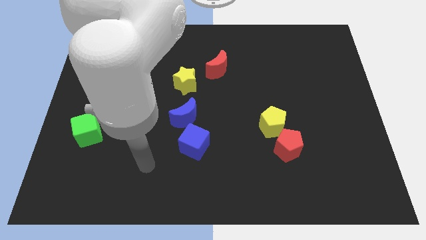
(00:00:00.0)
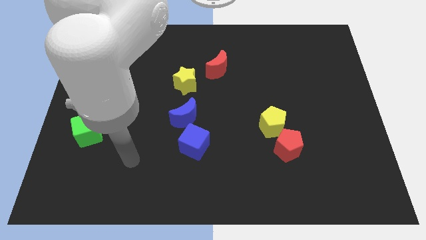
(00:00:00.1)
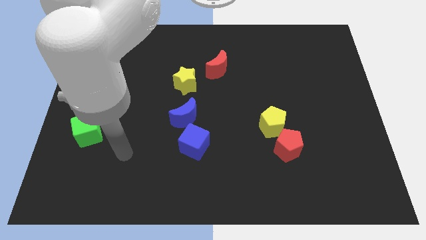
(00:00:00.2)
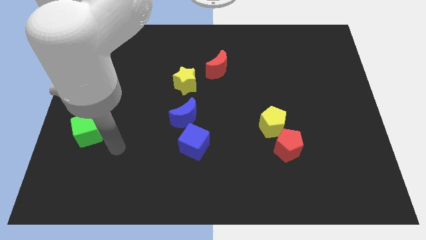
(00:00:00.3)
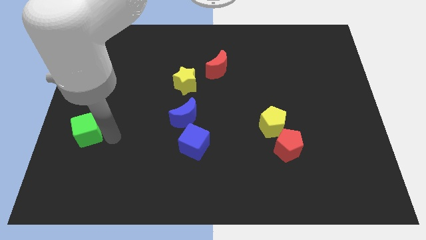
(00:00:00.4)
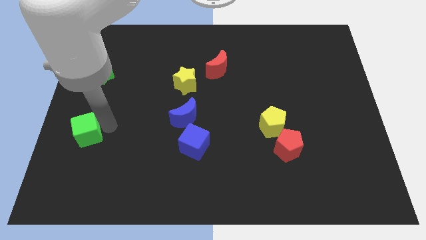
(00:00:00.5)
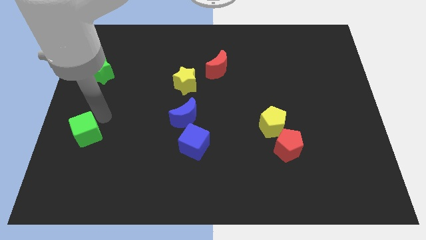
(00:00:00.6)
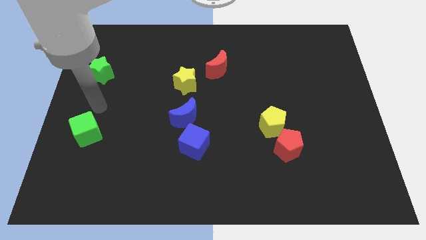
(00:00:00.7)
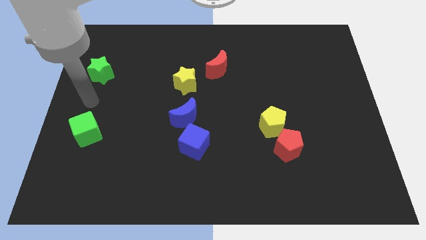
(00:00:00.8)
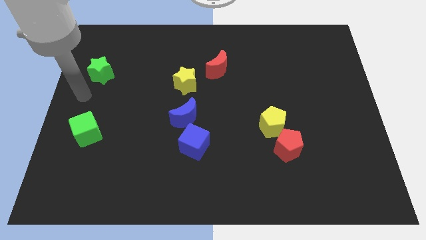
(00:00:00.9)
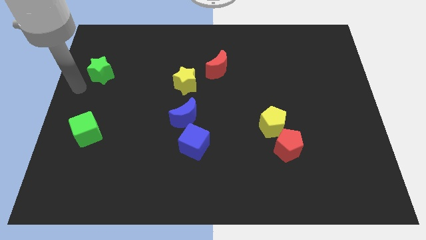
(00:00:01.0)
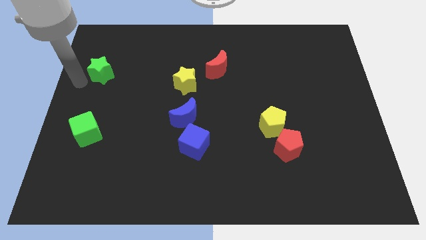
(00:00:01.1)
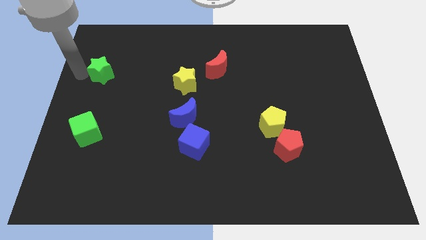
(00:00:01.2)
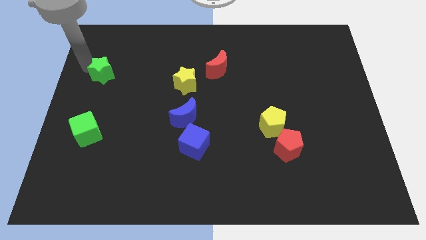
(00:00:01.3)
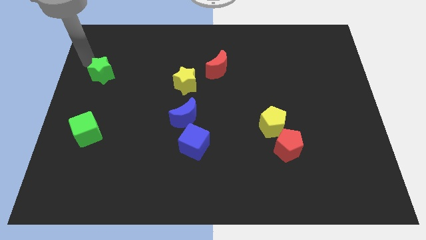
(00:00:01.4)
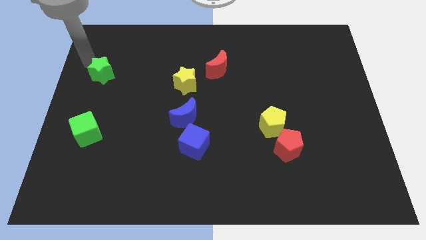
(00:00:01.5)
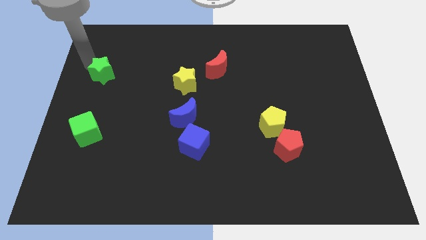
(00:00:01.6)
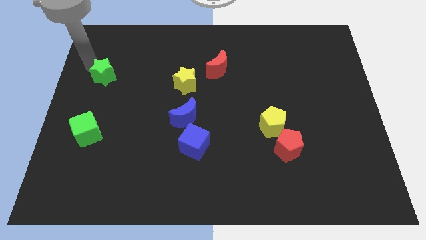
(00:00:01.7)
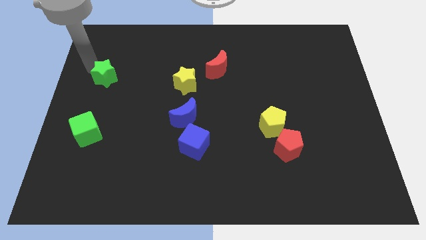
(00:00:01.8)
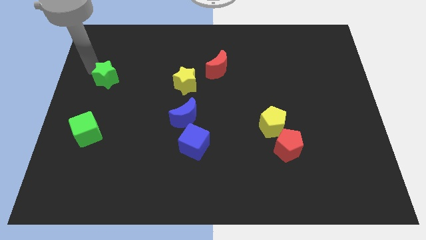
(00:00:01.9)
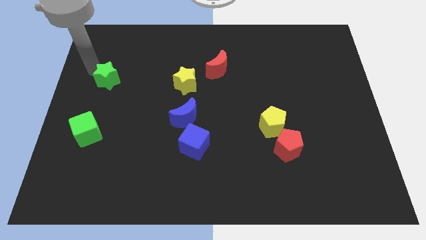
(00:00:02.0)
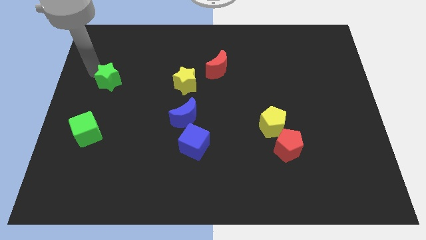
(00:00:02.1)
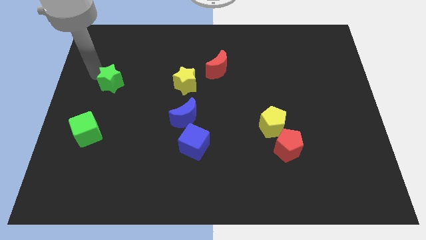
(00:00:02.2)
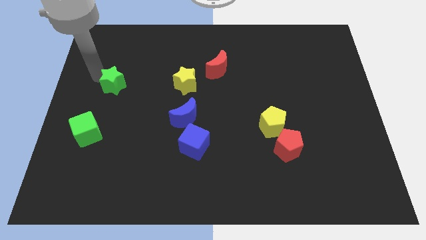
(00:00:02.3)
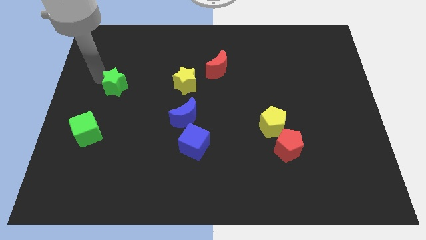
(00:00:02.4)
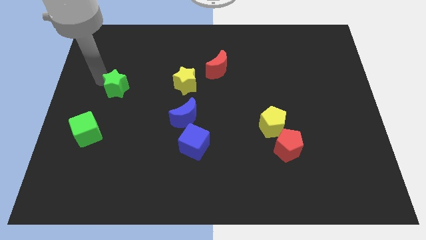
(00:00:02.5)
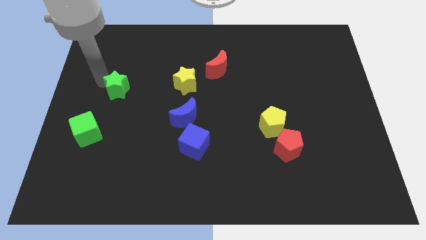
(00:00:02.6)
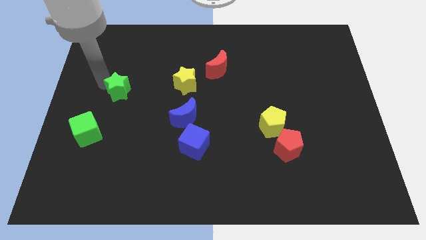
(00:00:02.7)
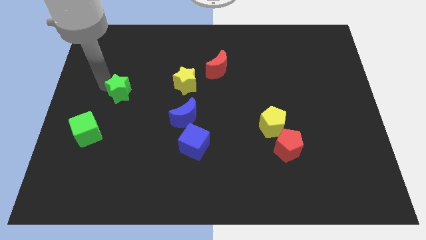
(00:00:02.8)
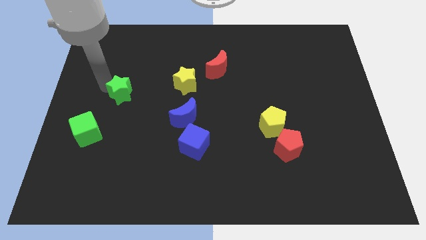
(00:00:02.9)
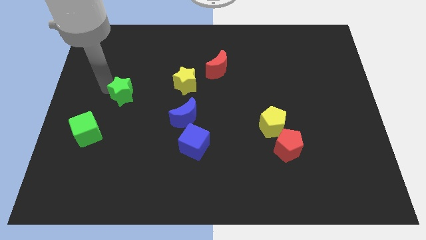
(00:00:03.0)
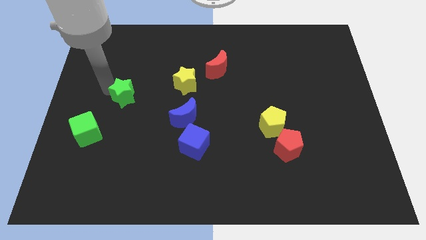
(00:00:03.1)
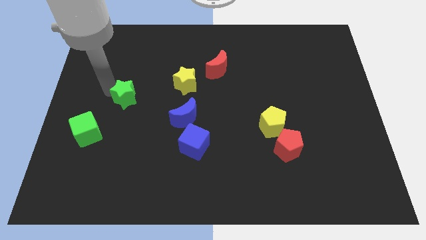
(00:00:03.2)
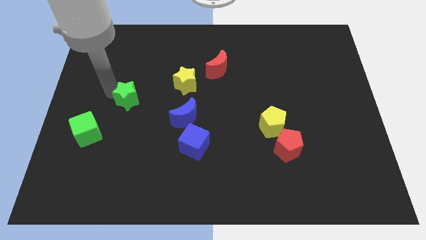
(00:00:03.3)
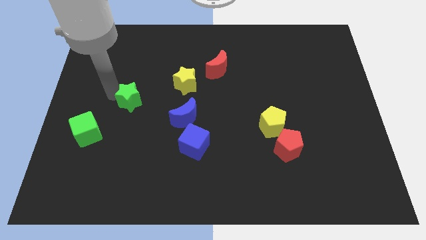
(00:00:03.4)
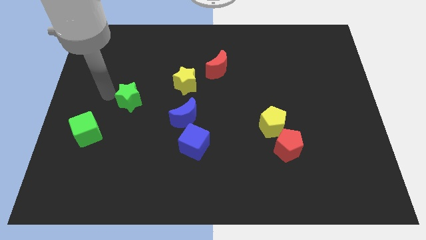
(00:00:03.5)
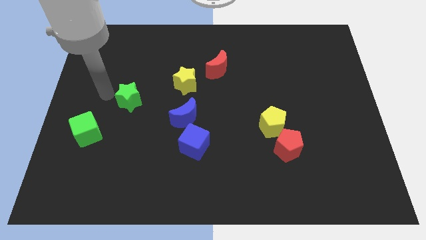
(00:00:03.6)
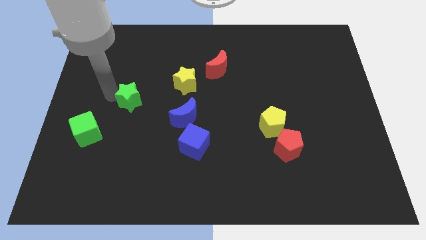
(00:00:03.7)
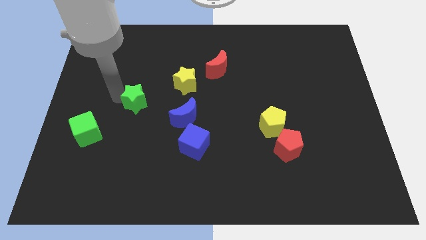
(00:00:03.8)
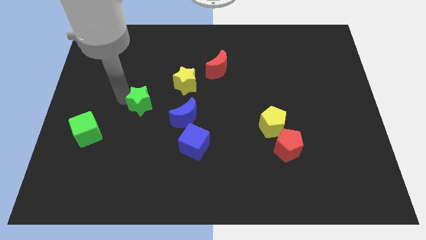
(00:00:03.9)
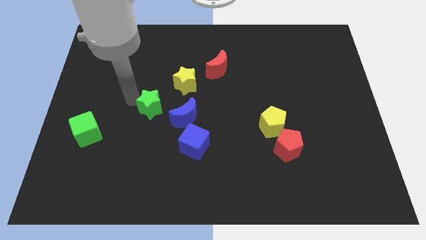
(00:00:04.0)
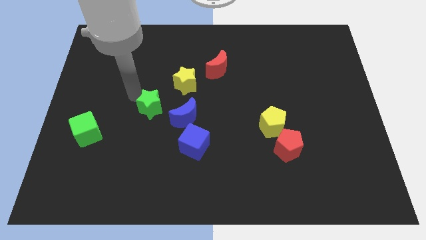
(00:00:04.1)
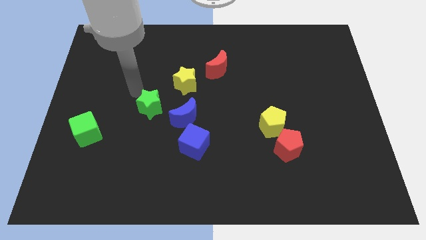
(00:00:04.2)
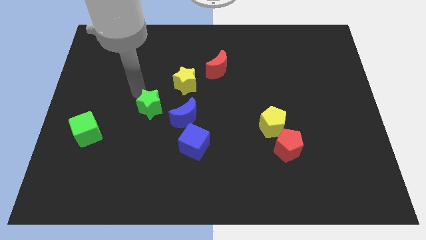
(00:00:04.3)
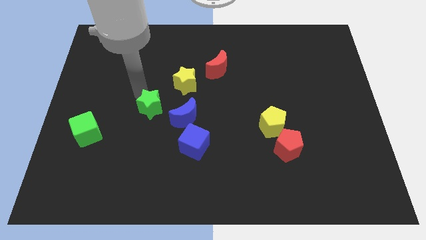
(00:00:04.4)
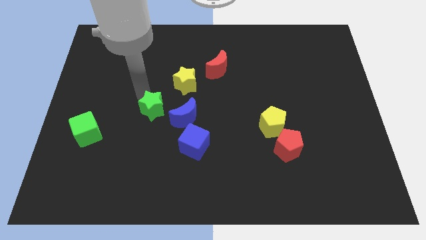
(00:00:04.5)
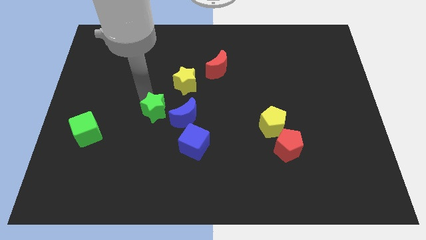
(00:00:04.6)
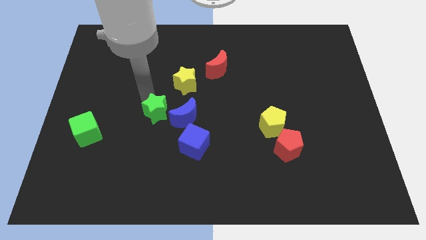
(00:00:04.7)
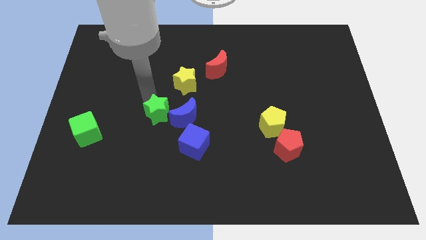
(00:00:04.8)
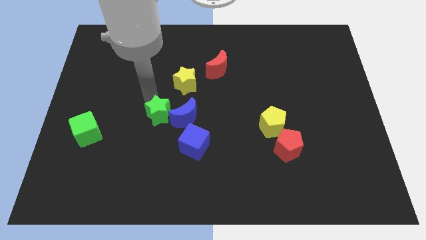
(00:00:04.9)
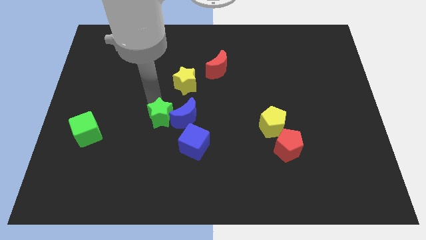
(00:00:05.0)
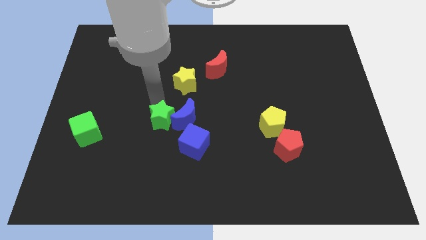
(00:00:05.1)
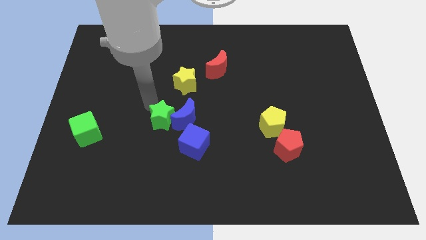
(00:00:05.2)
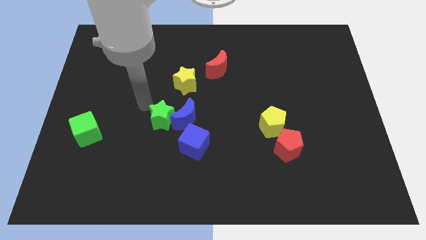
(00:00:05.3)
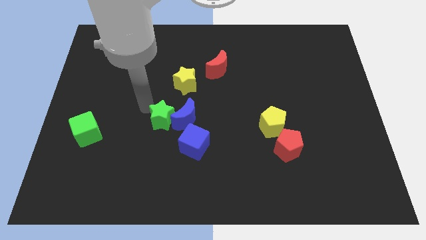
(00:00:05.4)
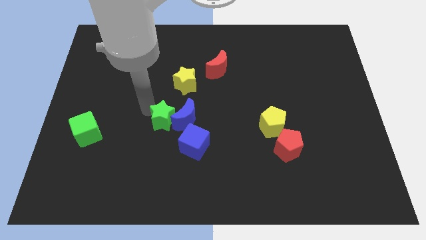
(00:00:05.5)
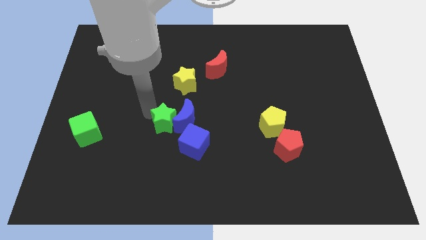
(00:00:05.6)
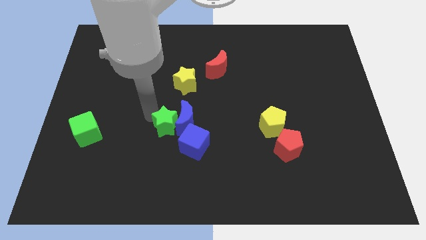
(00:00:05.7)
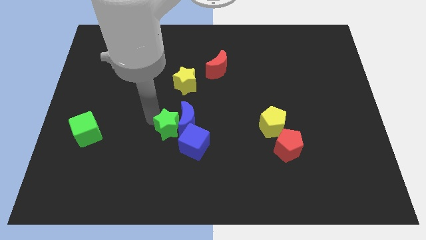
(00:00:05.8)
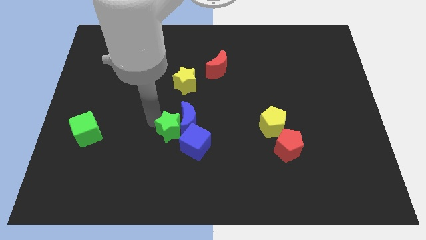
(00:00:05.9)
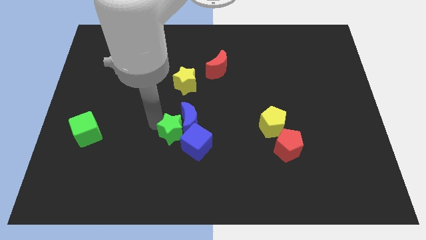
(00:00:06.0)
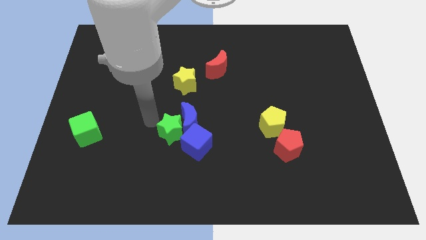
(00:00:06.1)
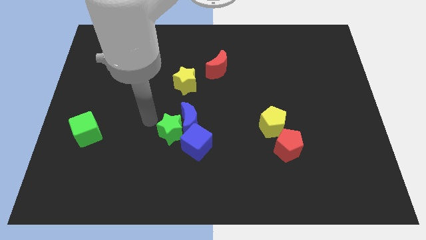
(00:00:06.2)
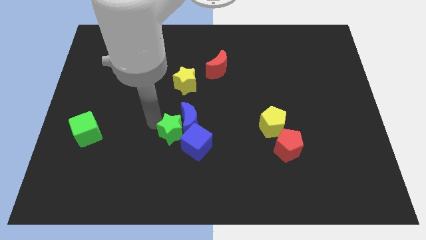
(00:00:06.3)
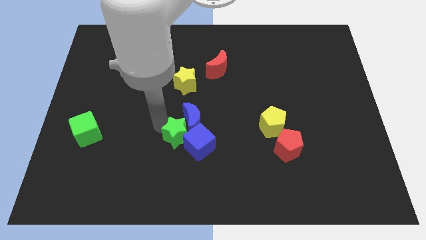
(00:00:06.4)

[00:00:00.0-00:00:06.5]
move the green star close to the blue cube

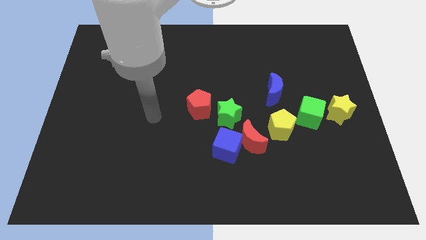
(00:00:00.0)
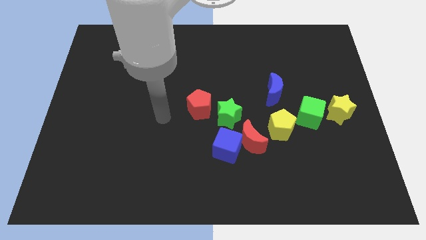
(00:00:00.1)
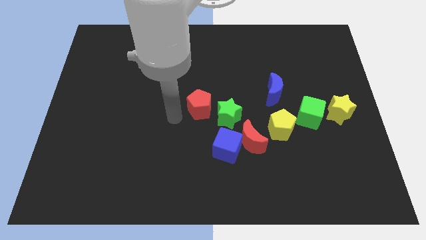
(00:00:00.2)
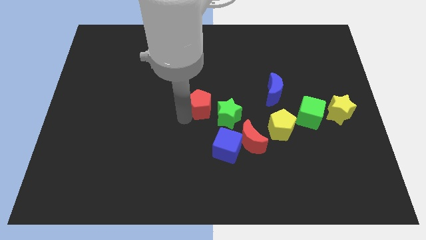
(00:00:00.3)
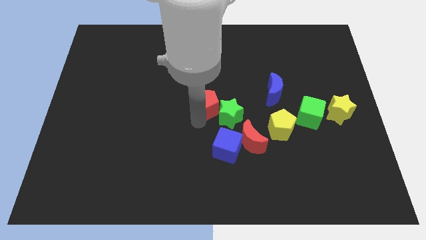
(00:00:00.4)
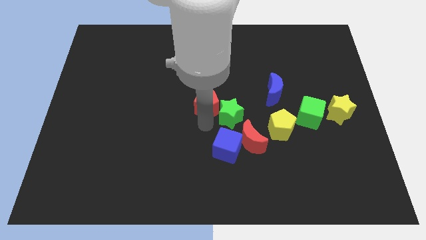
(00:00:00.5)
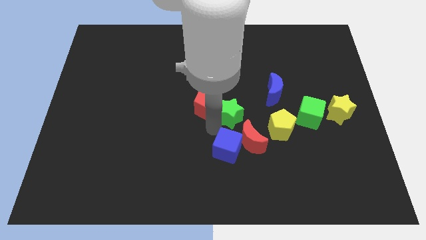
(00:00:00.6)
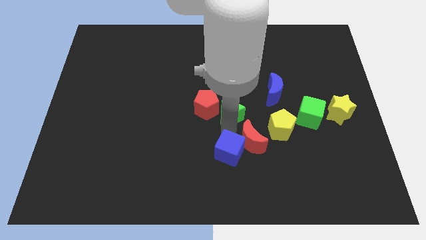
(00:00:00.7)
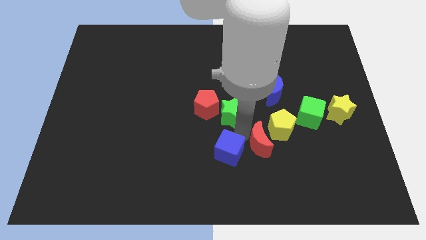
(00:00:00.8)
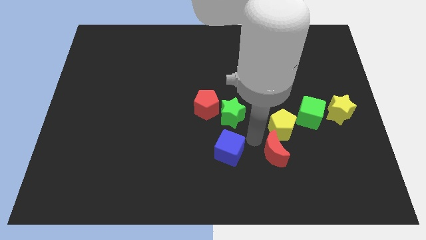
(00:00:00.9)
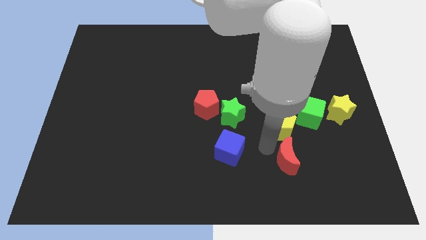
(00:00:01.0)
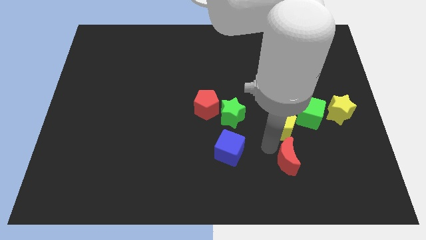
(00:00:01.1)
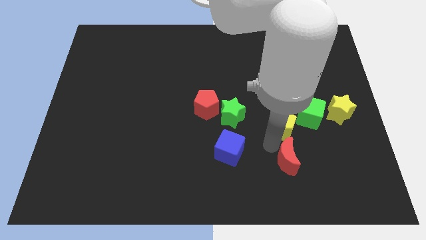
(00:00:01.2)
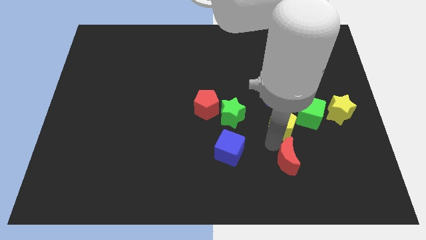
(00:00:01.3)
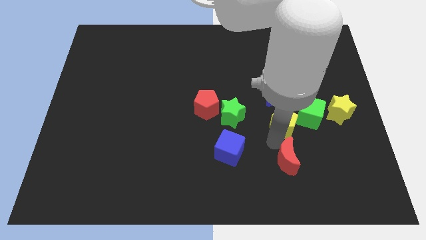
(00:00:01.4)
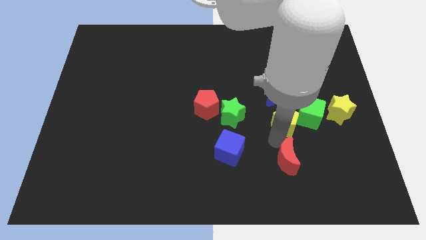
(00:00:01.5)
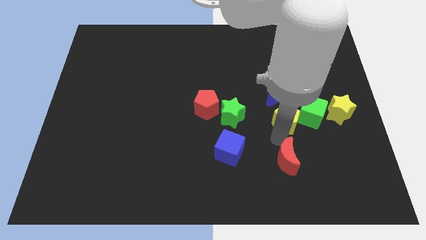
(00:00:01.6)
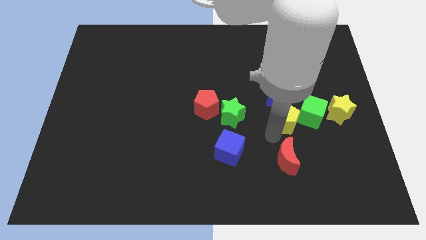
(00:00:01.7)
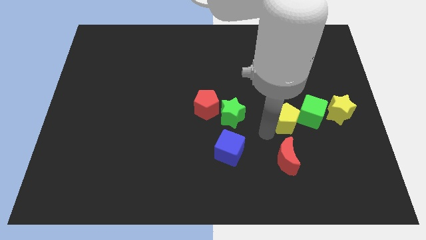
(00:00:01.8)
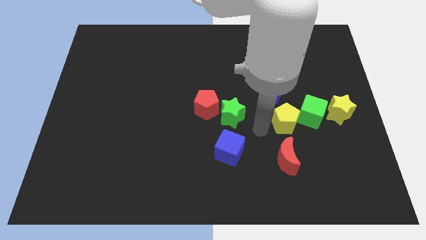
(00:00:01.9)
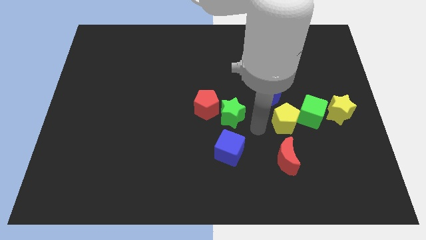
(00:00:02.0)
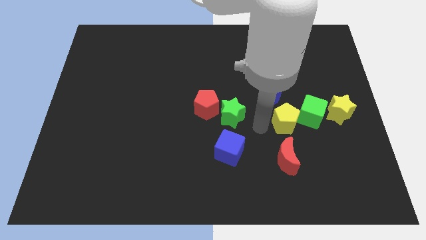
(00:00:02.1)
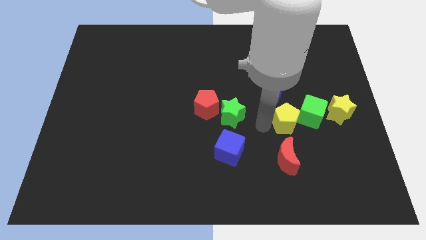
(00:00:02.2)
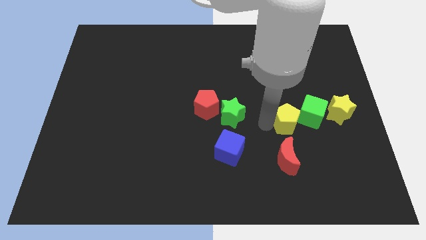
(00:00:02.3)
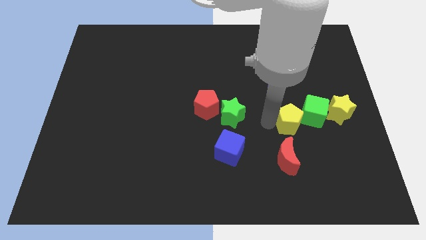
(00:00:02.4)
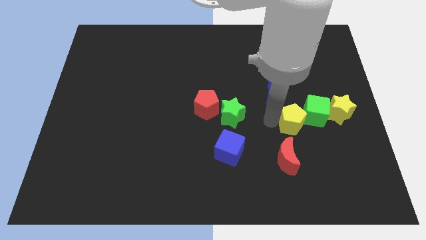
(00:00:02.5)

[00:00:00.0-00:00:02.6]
move the yellow pentagon close to the green cube
